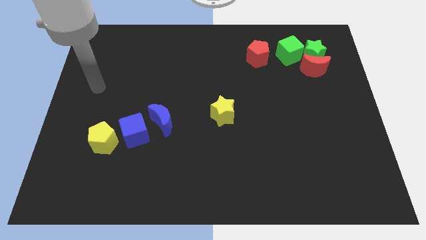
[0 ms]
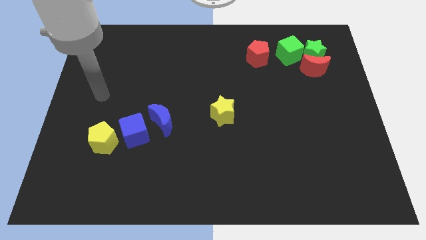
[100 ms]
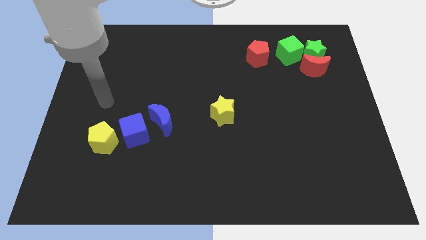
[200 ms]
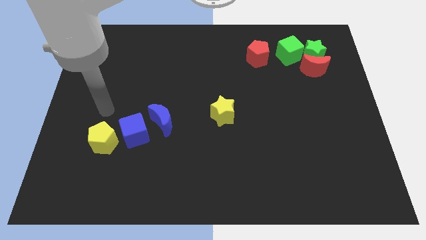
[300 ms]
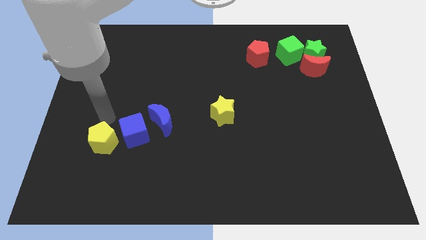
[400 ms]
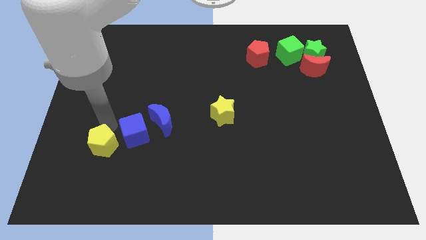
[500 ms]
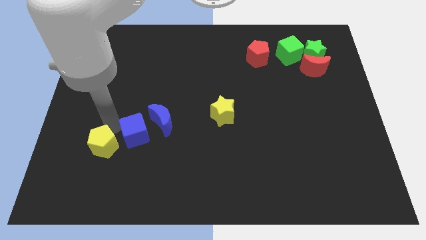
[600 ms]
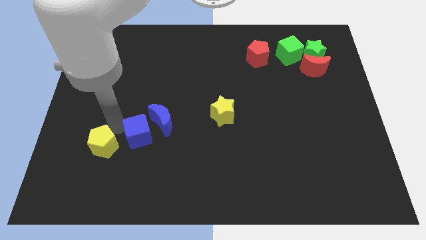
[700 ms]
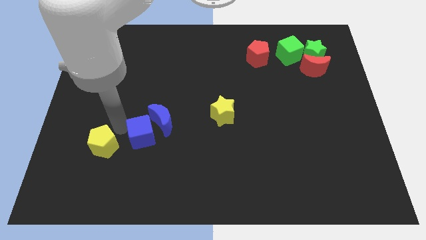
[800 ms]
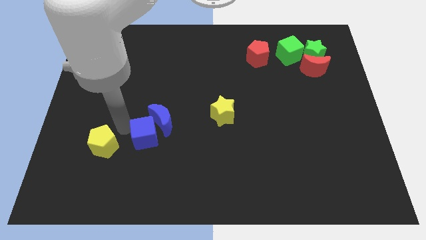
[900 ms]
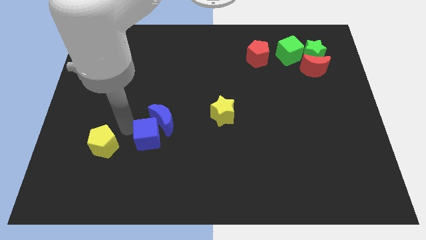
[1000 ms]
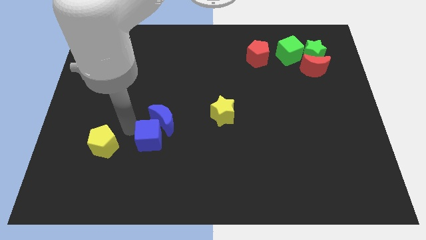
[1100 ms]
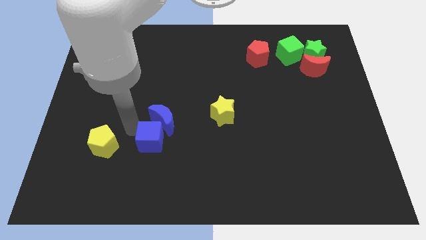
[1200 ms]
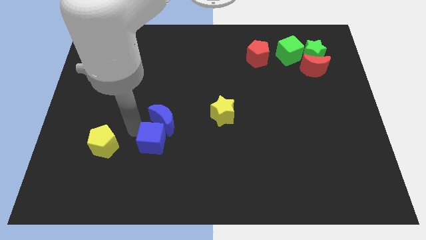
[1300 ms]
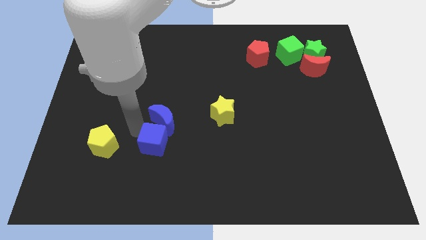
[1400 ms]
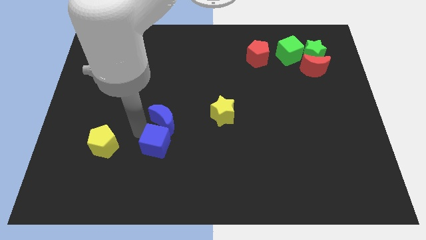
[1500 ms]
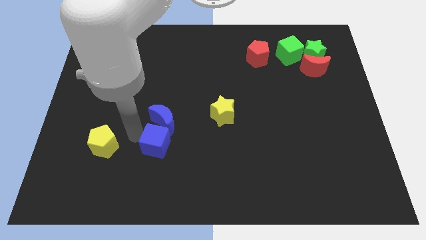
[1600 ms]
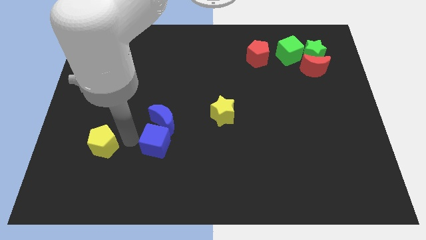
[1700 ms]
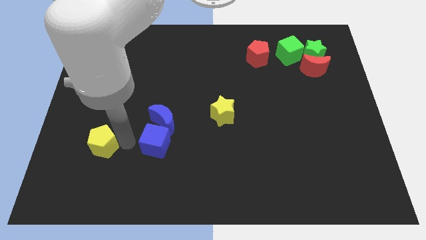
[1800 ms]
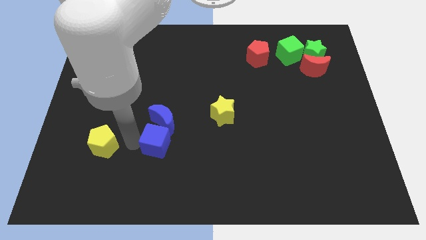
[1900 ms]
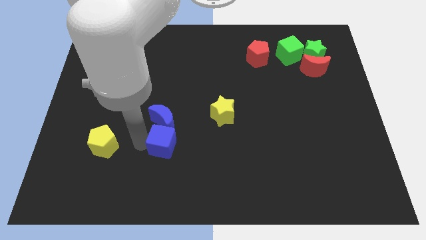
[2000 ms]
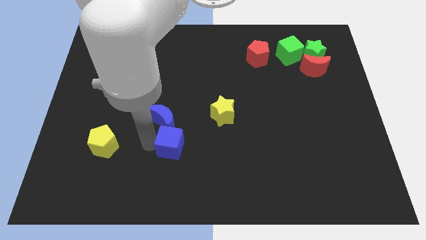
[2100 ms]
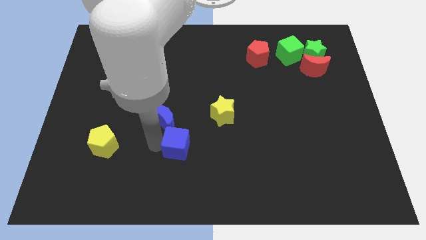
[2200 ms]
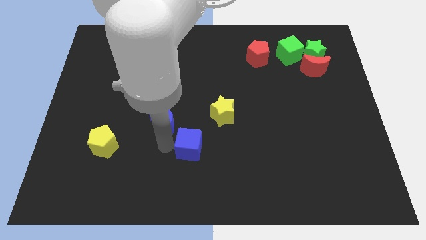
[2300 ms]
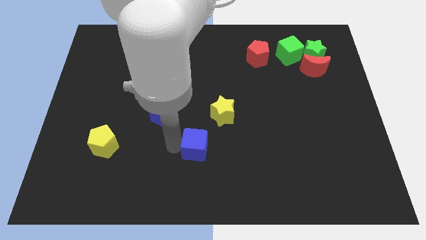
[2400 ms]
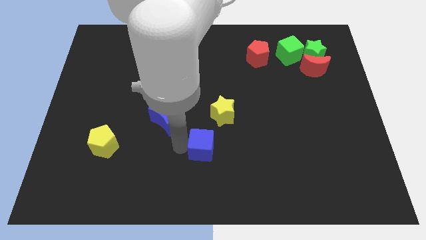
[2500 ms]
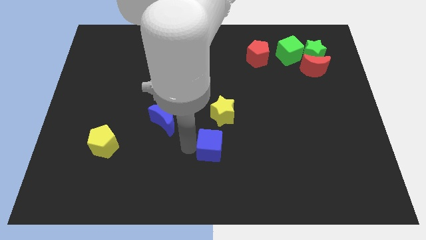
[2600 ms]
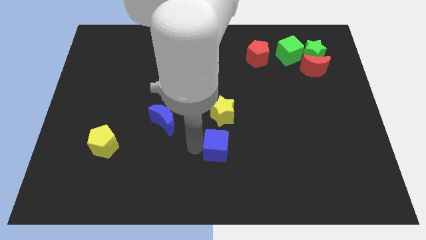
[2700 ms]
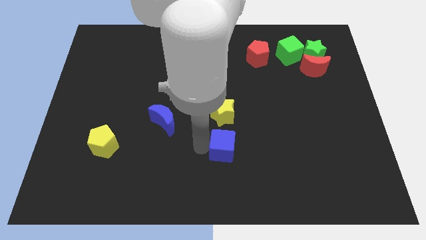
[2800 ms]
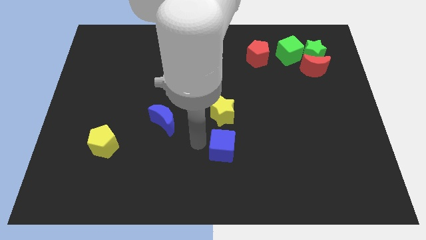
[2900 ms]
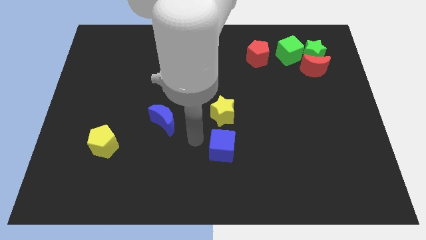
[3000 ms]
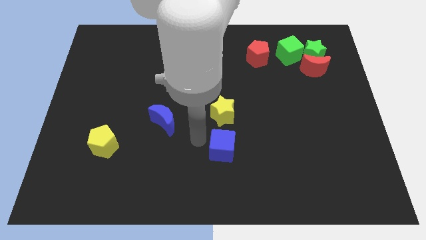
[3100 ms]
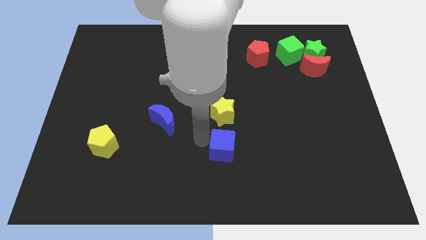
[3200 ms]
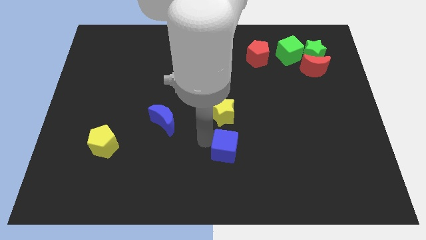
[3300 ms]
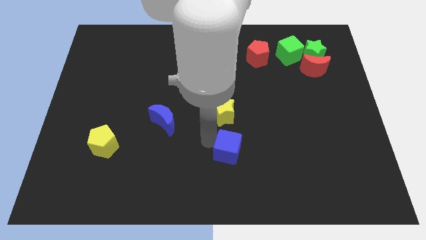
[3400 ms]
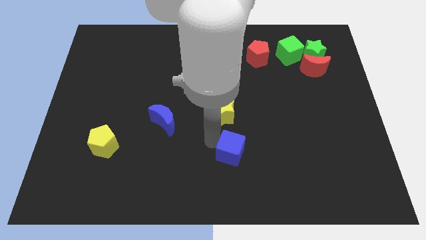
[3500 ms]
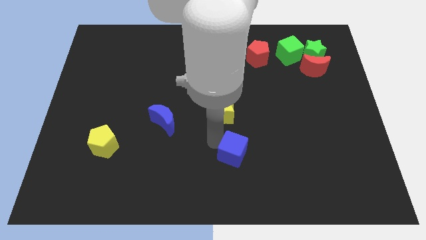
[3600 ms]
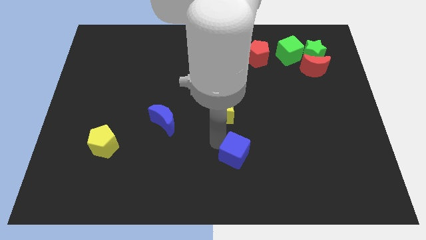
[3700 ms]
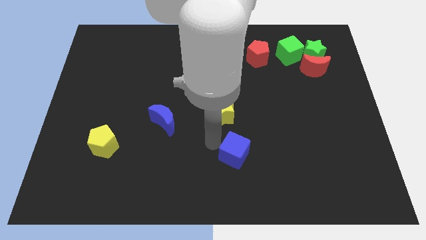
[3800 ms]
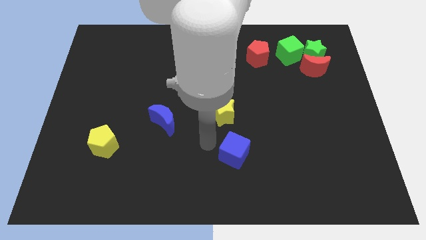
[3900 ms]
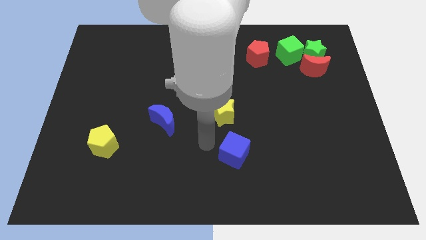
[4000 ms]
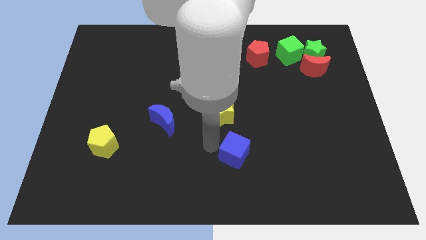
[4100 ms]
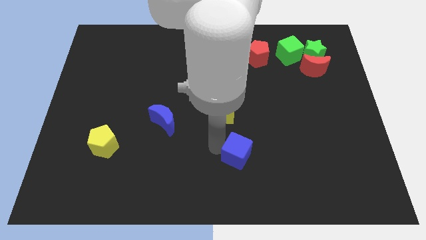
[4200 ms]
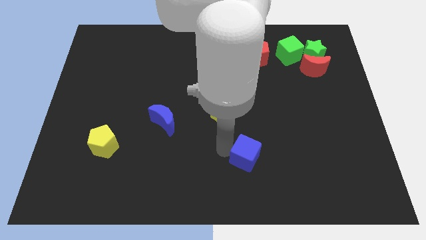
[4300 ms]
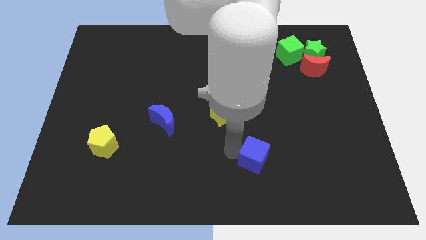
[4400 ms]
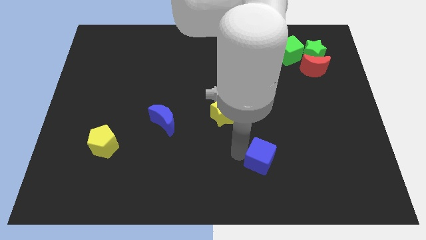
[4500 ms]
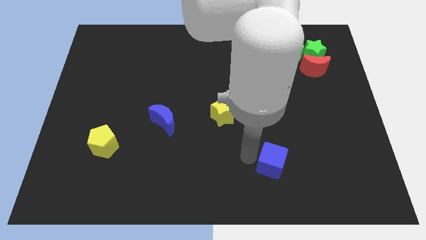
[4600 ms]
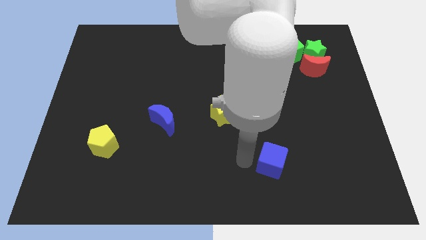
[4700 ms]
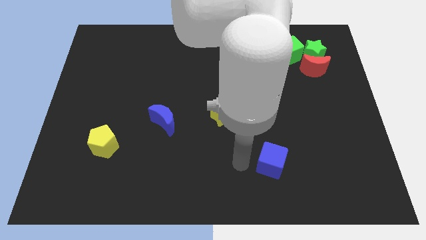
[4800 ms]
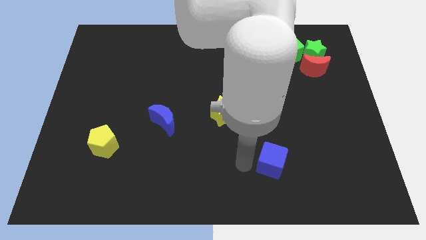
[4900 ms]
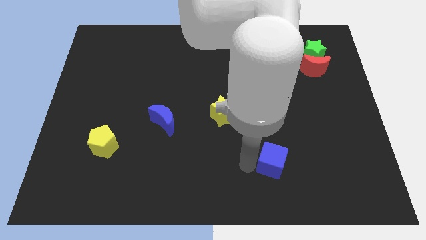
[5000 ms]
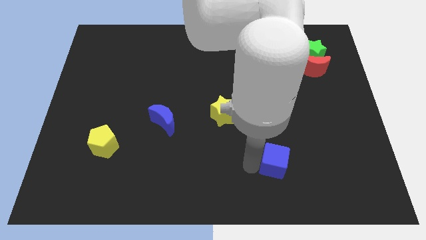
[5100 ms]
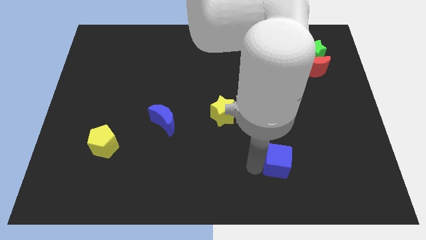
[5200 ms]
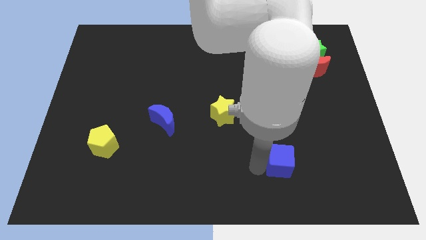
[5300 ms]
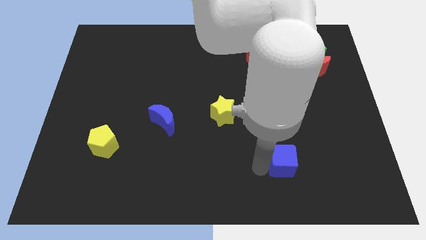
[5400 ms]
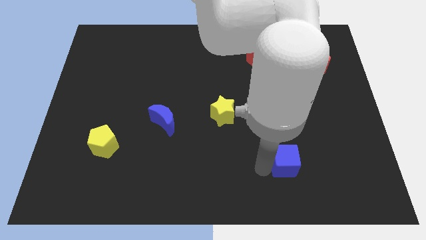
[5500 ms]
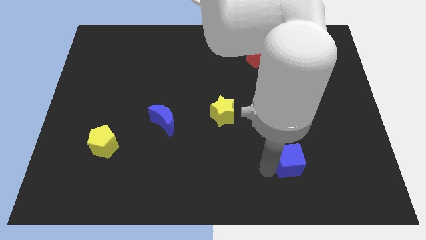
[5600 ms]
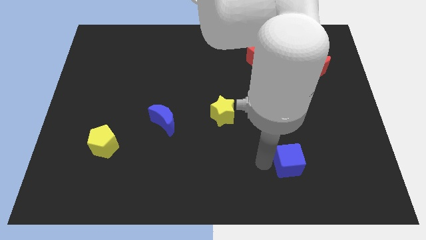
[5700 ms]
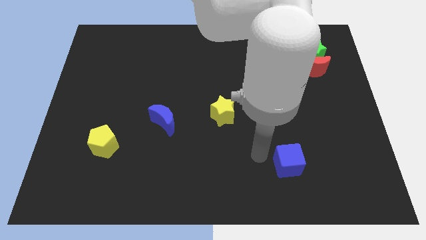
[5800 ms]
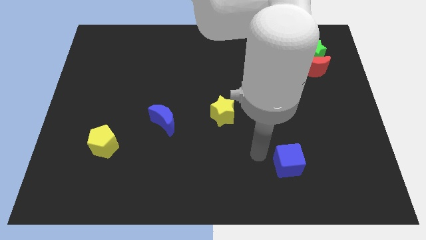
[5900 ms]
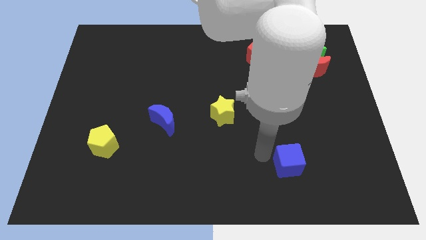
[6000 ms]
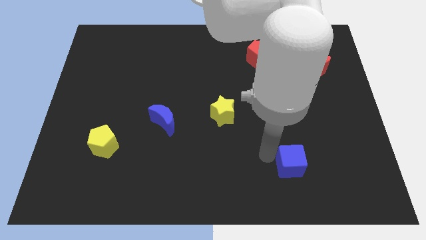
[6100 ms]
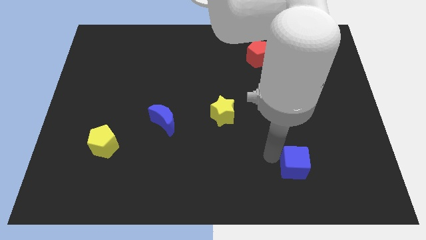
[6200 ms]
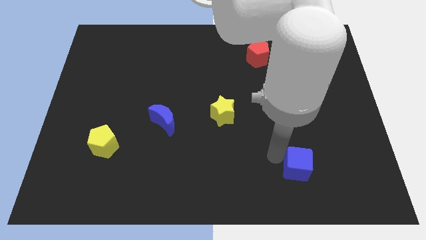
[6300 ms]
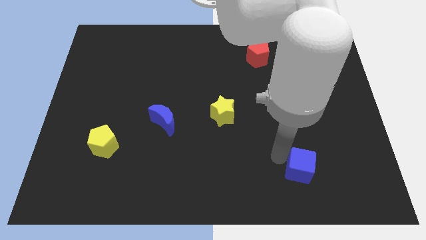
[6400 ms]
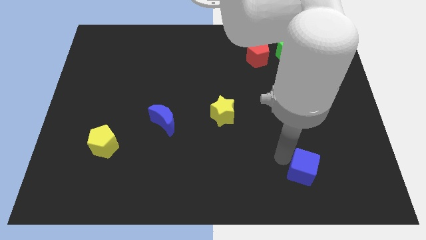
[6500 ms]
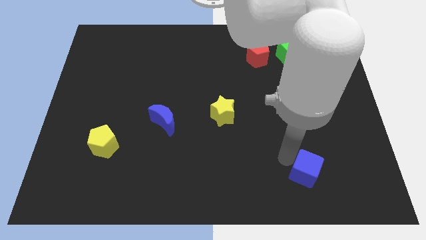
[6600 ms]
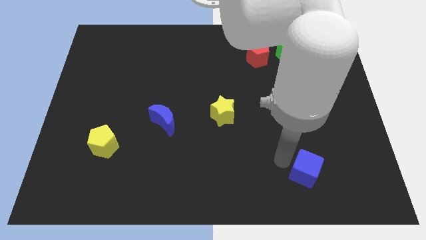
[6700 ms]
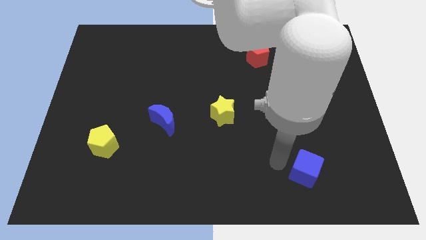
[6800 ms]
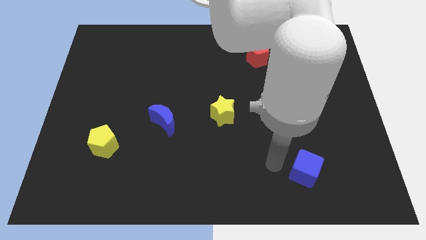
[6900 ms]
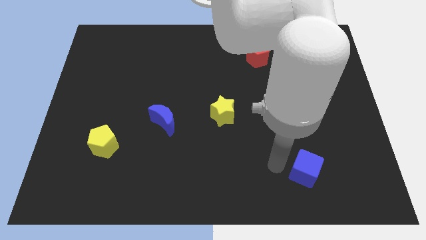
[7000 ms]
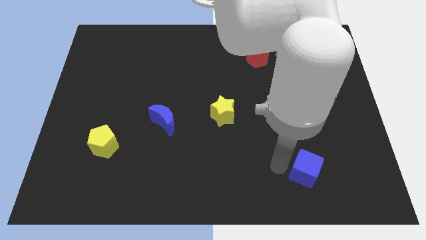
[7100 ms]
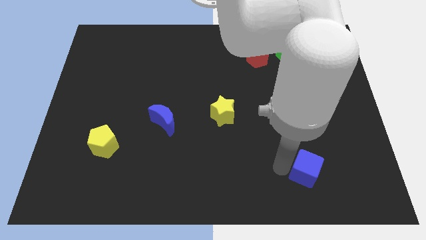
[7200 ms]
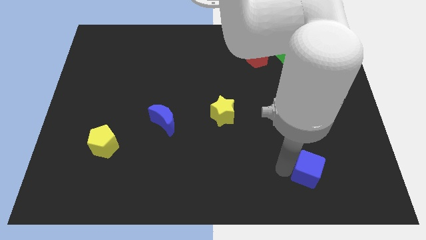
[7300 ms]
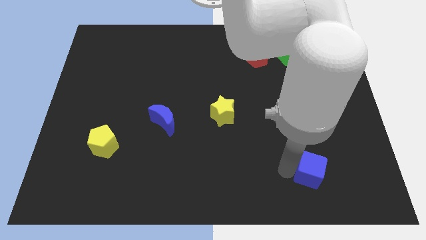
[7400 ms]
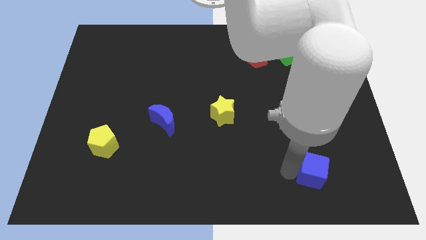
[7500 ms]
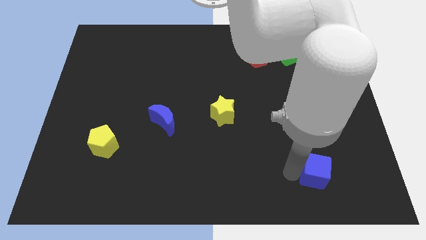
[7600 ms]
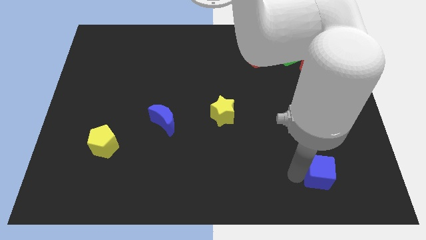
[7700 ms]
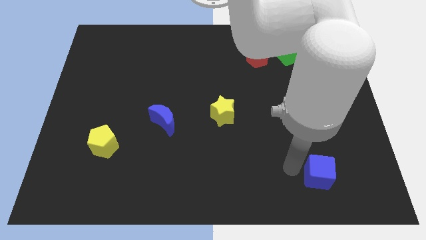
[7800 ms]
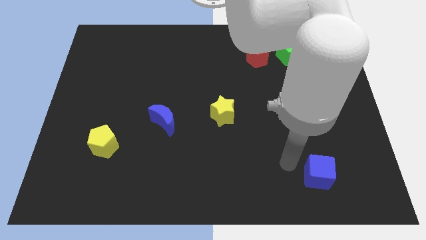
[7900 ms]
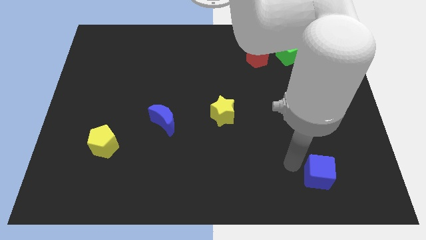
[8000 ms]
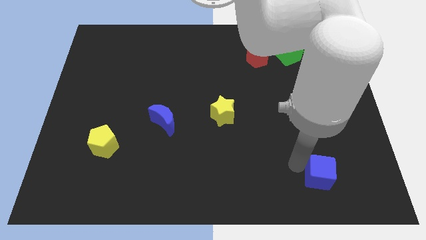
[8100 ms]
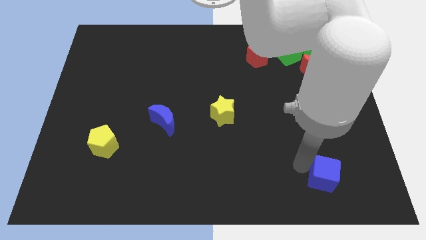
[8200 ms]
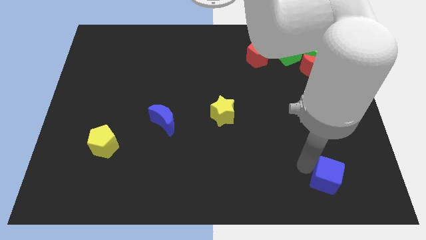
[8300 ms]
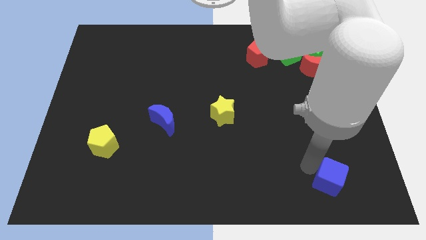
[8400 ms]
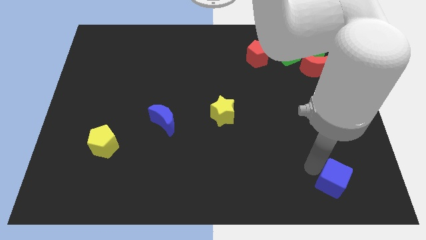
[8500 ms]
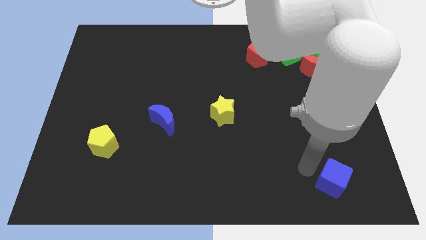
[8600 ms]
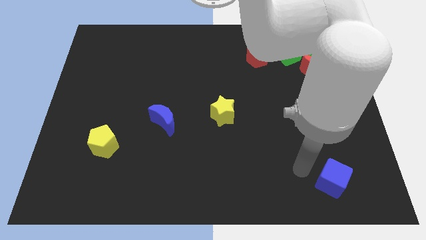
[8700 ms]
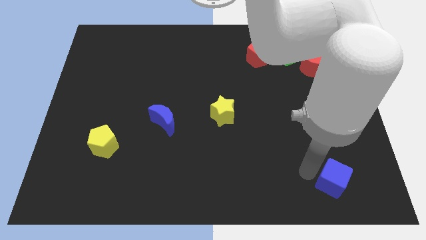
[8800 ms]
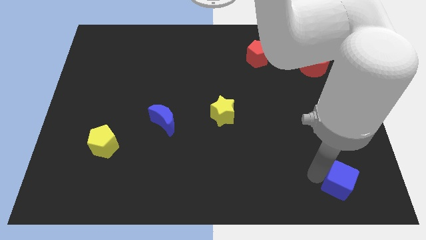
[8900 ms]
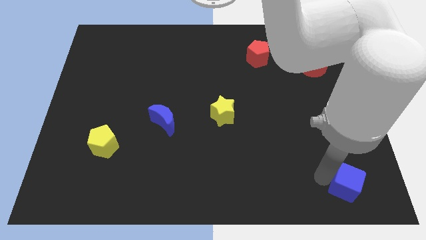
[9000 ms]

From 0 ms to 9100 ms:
slide the blue cube to the bottom right corner
